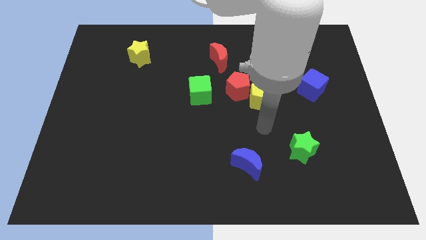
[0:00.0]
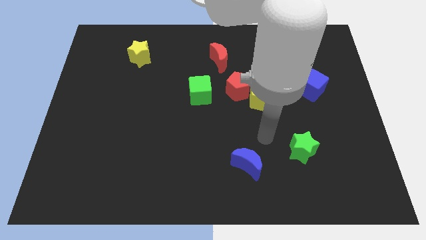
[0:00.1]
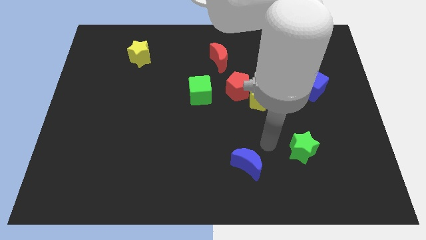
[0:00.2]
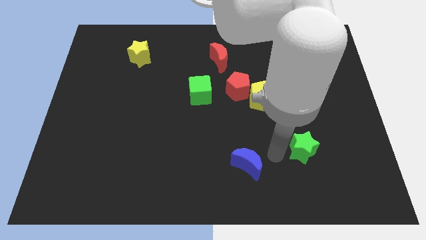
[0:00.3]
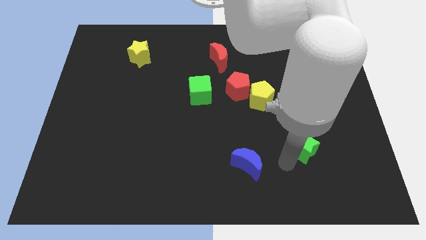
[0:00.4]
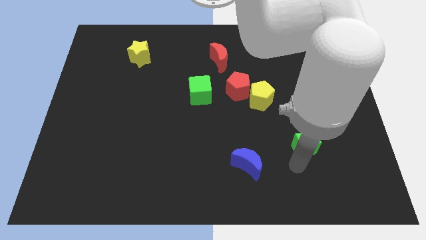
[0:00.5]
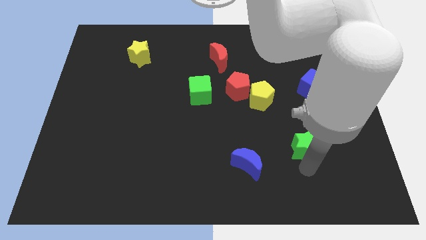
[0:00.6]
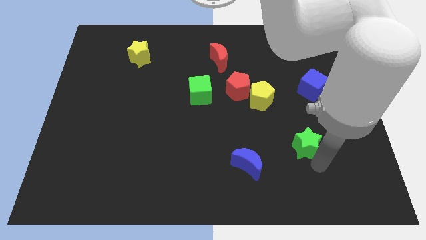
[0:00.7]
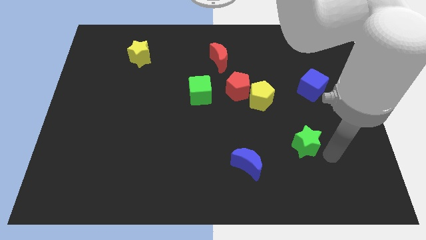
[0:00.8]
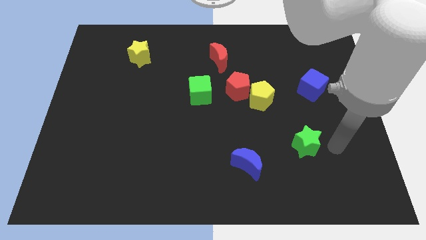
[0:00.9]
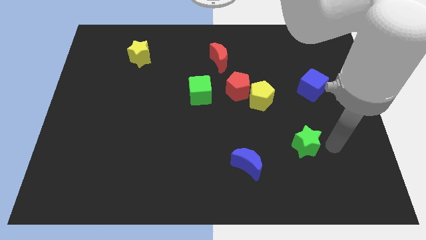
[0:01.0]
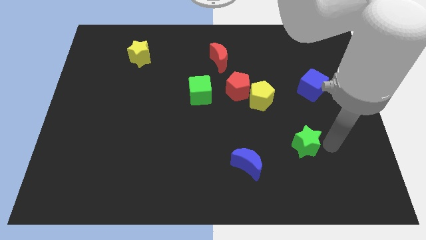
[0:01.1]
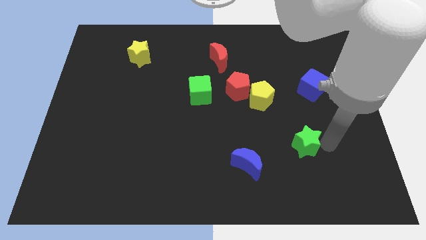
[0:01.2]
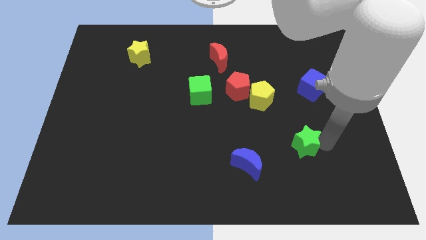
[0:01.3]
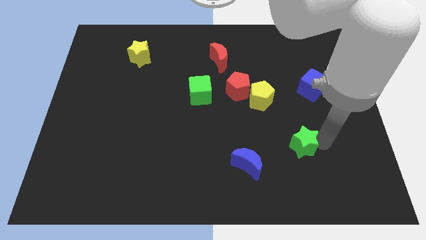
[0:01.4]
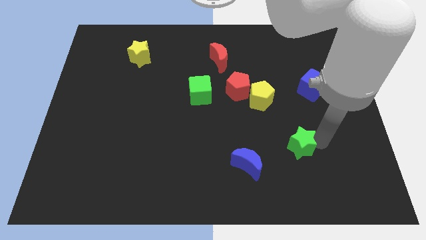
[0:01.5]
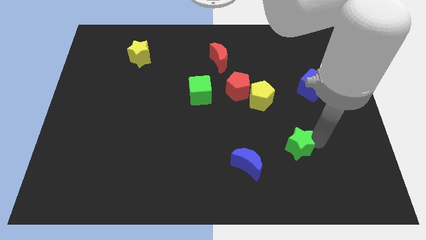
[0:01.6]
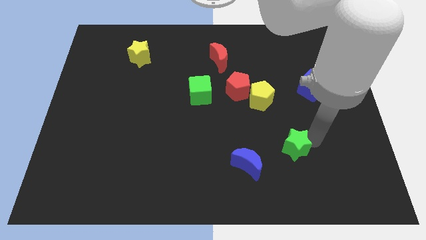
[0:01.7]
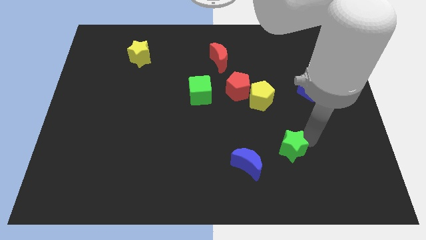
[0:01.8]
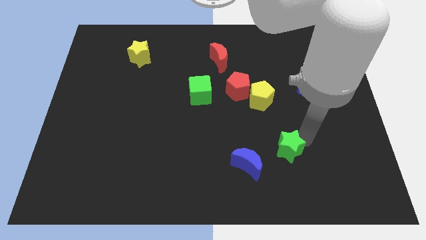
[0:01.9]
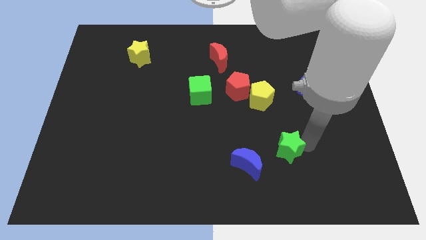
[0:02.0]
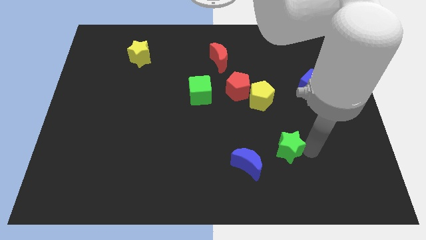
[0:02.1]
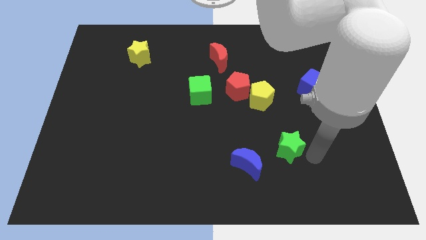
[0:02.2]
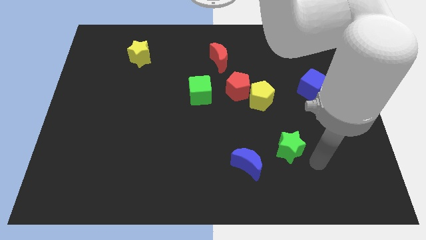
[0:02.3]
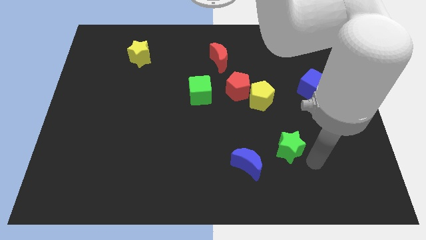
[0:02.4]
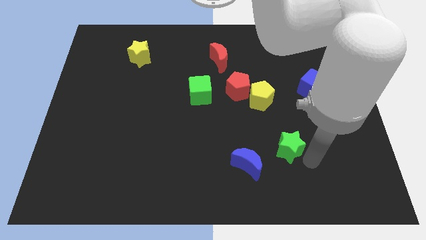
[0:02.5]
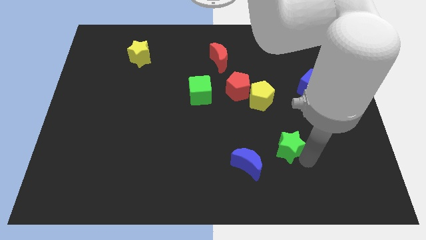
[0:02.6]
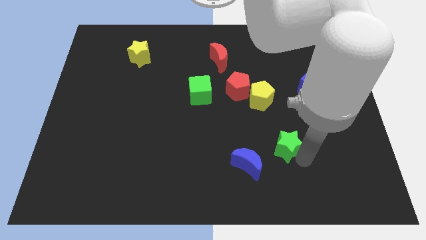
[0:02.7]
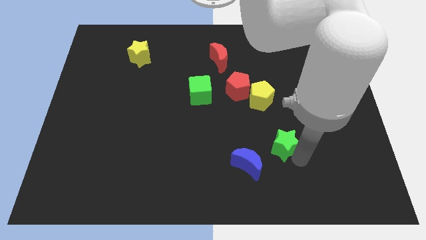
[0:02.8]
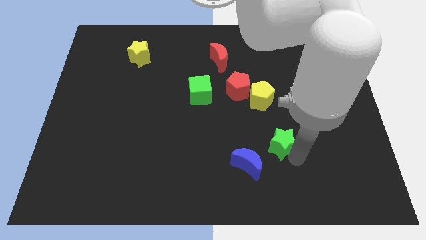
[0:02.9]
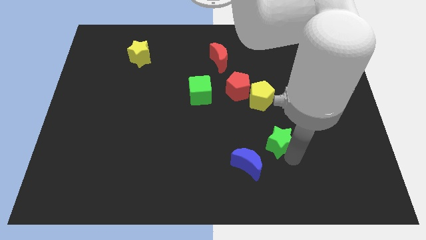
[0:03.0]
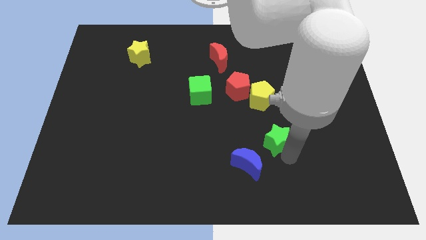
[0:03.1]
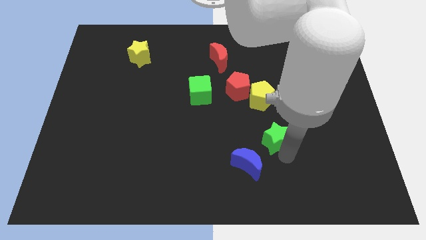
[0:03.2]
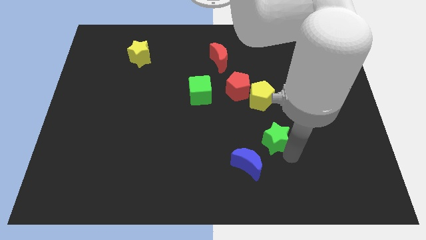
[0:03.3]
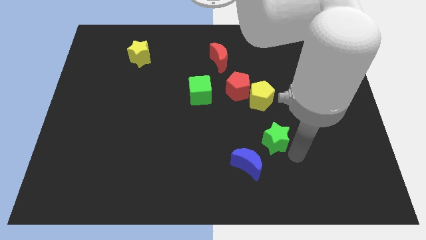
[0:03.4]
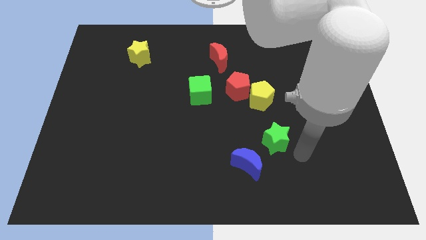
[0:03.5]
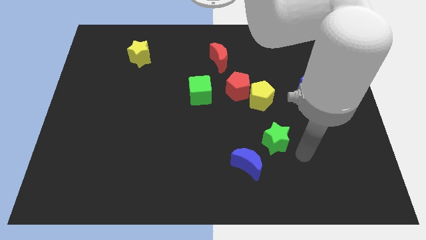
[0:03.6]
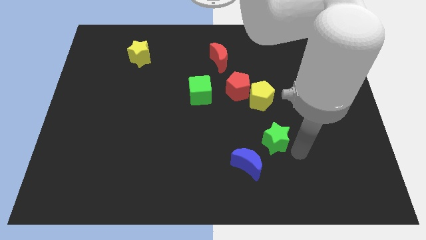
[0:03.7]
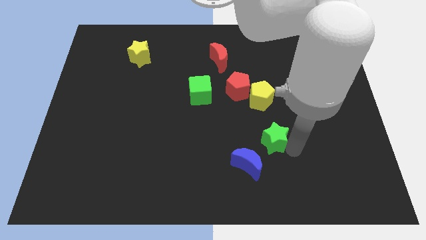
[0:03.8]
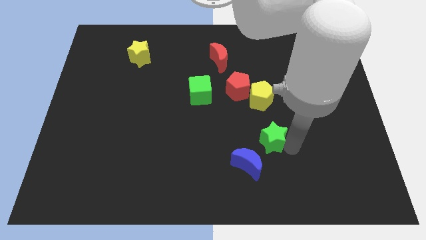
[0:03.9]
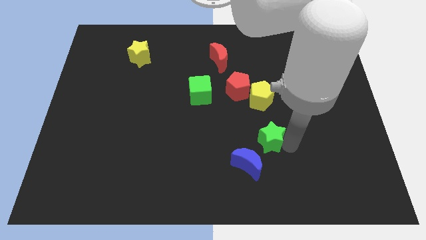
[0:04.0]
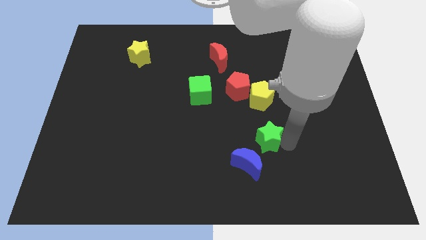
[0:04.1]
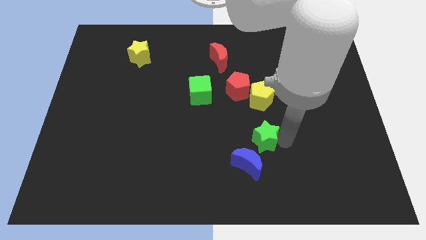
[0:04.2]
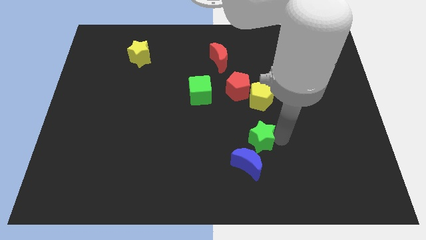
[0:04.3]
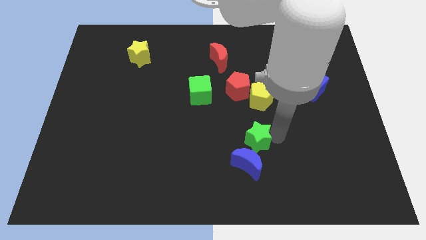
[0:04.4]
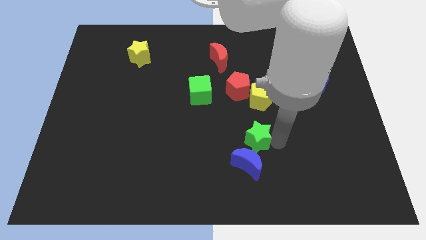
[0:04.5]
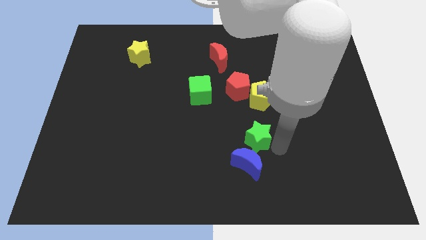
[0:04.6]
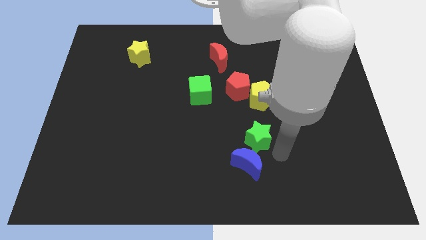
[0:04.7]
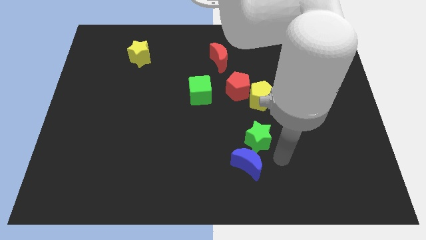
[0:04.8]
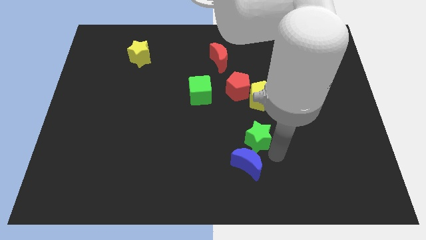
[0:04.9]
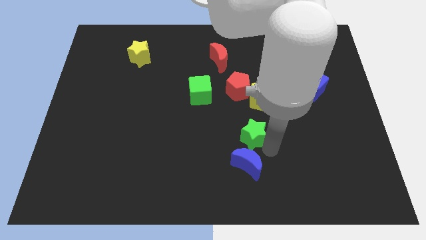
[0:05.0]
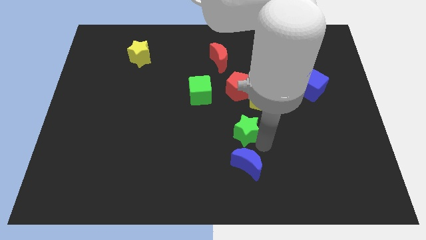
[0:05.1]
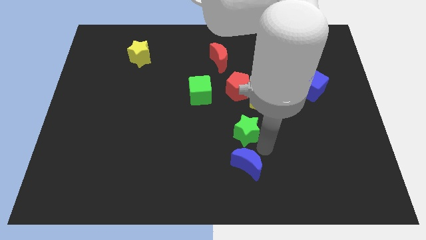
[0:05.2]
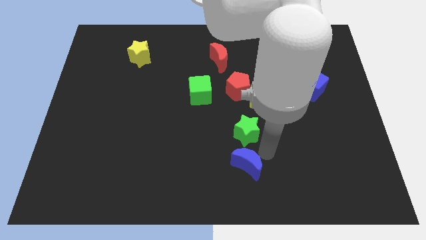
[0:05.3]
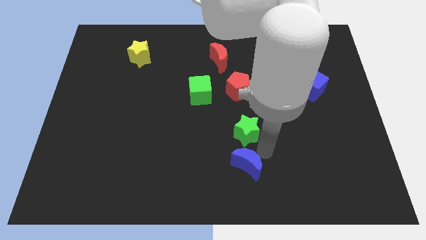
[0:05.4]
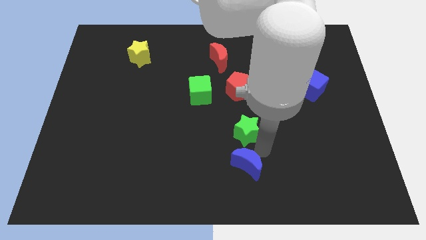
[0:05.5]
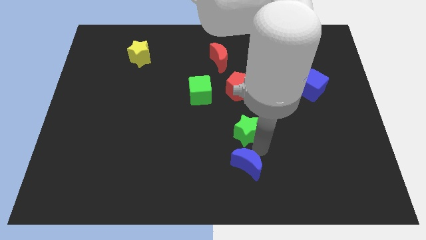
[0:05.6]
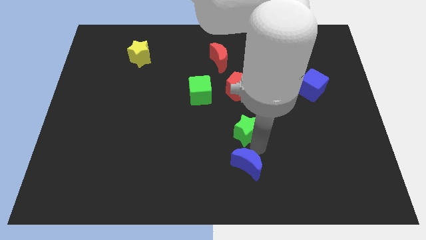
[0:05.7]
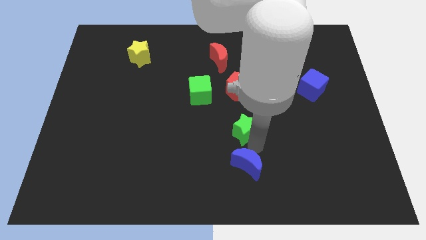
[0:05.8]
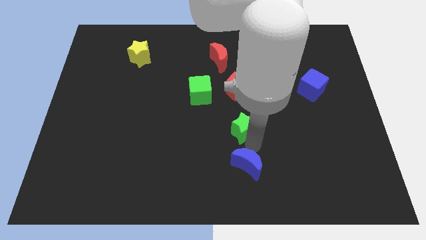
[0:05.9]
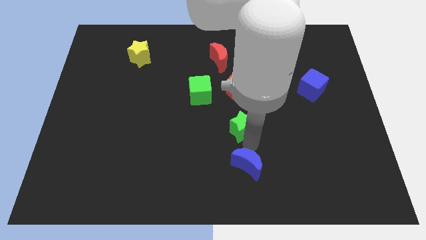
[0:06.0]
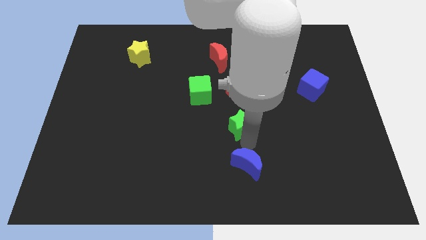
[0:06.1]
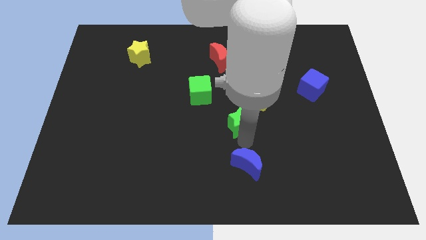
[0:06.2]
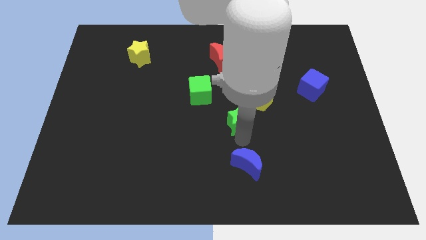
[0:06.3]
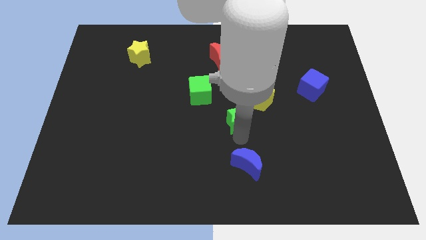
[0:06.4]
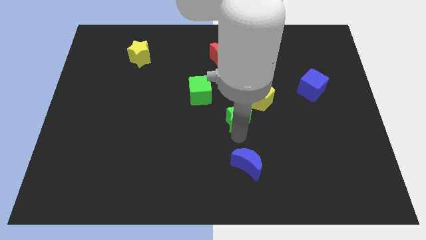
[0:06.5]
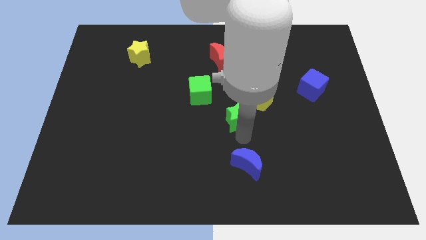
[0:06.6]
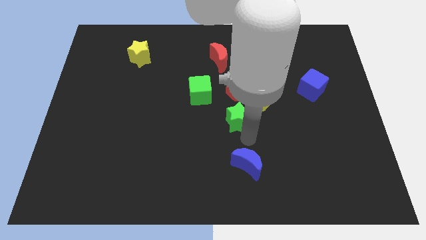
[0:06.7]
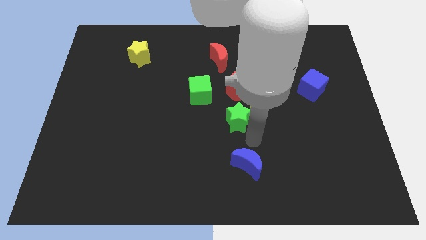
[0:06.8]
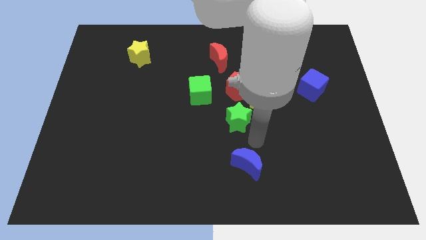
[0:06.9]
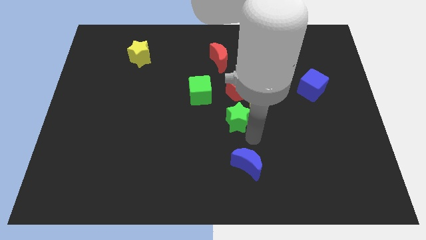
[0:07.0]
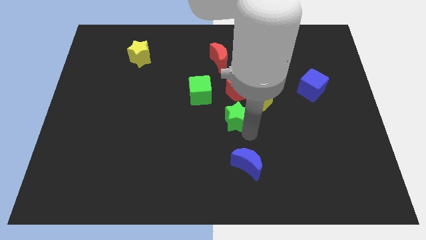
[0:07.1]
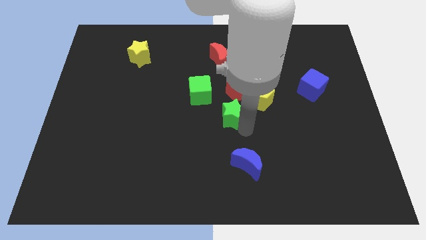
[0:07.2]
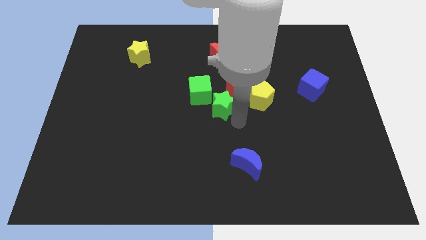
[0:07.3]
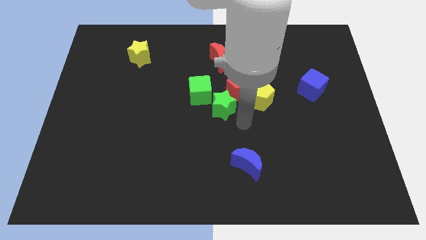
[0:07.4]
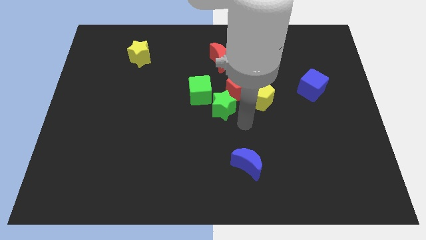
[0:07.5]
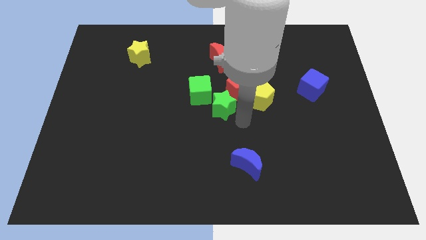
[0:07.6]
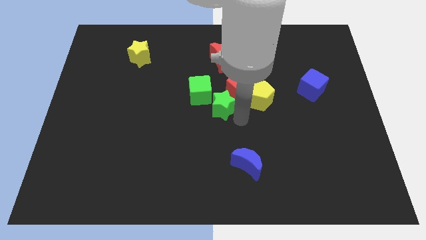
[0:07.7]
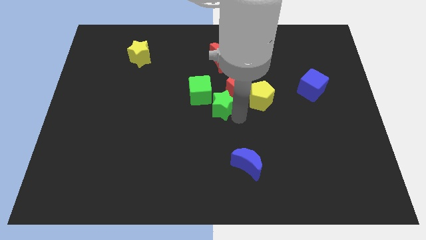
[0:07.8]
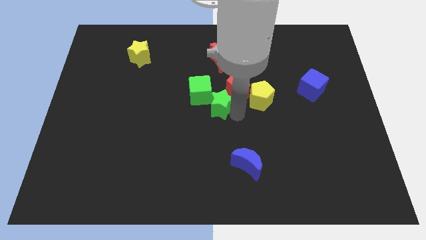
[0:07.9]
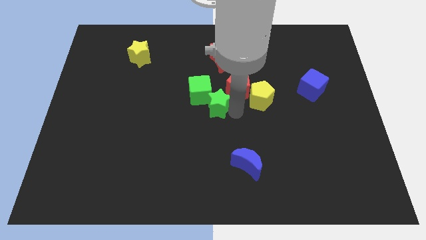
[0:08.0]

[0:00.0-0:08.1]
put the green star close to the green cube
